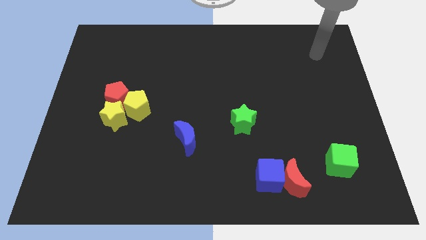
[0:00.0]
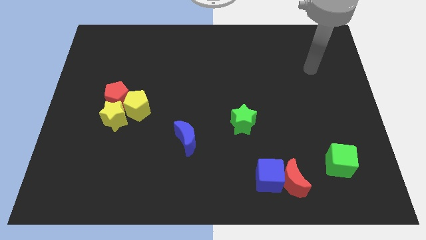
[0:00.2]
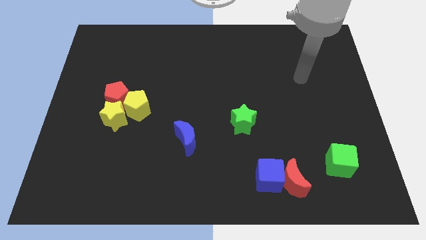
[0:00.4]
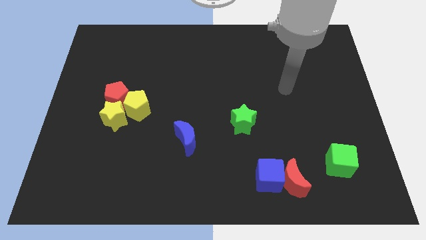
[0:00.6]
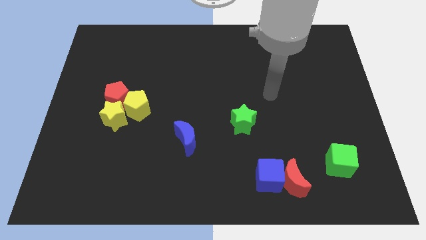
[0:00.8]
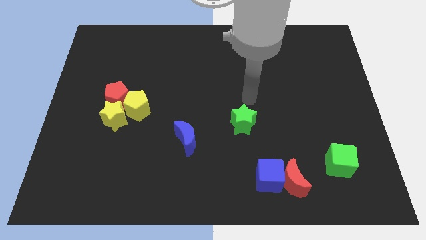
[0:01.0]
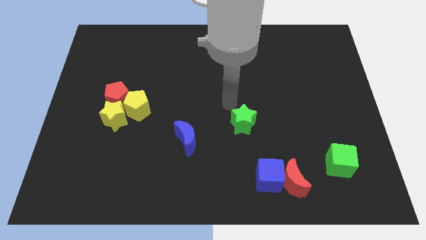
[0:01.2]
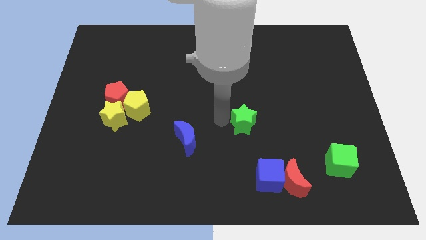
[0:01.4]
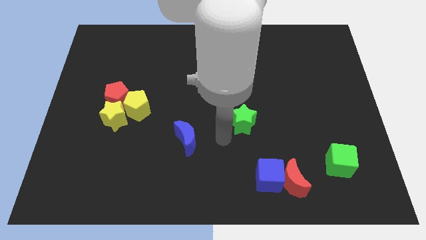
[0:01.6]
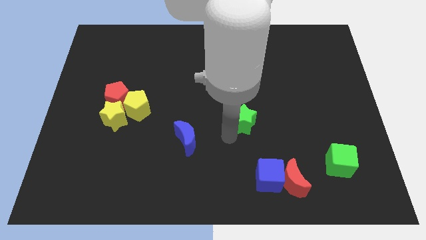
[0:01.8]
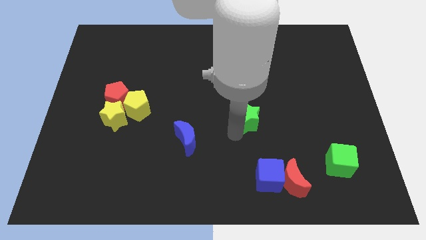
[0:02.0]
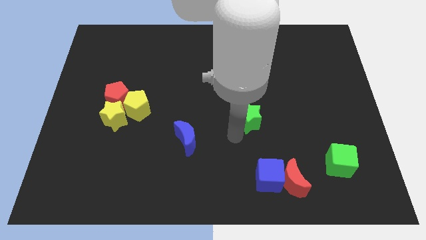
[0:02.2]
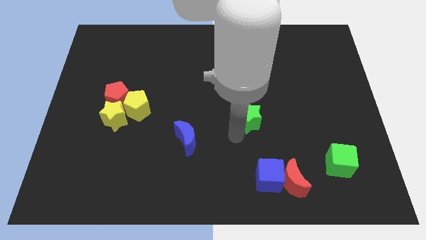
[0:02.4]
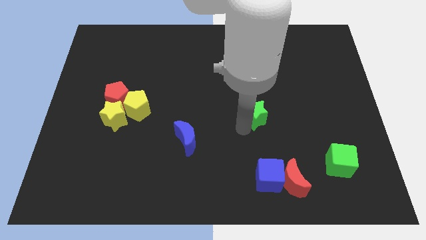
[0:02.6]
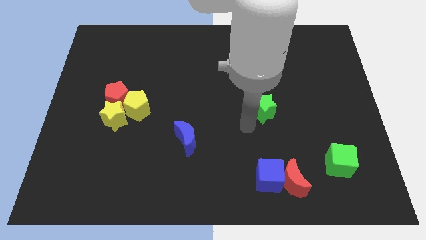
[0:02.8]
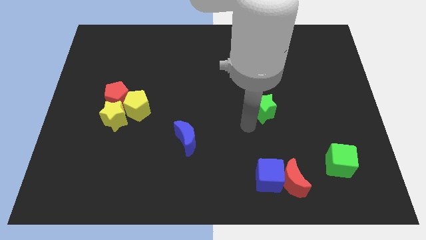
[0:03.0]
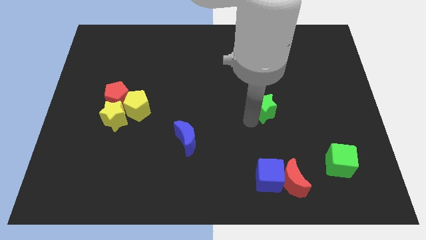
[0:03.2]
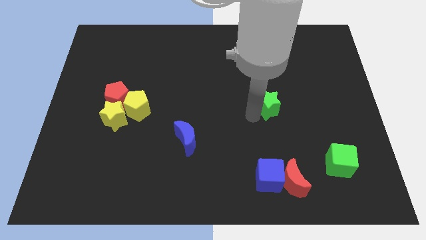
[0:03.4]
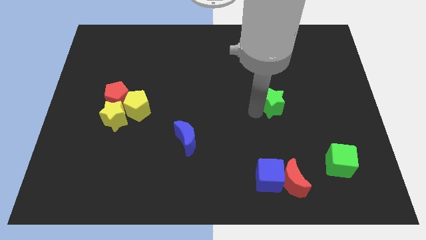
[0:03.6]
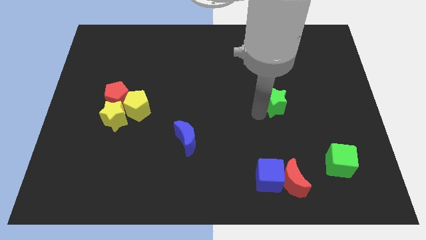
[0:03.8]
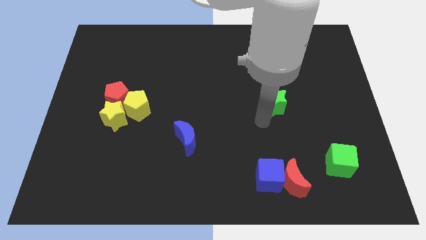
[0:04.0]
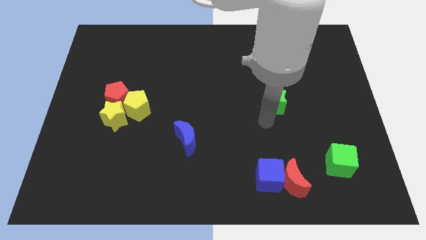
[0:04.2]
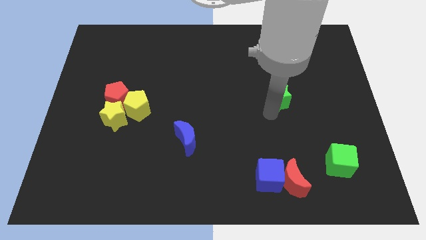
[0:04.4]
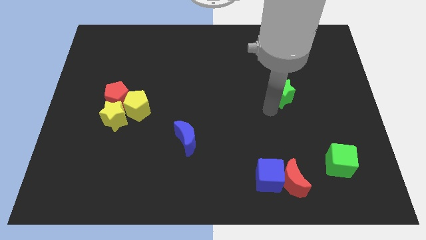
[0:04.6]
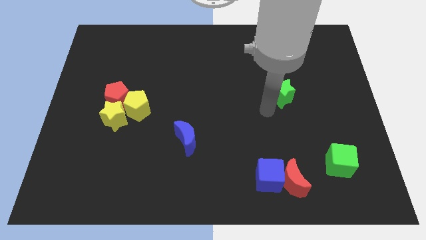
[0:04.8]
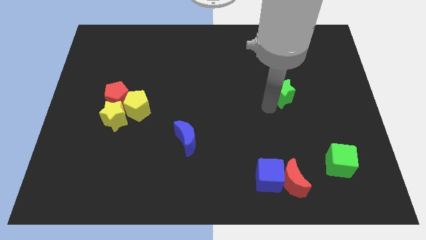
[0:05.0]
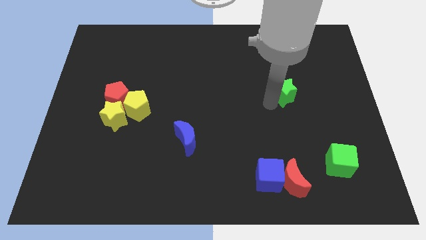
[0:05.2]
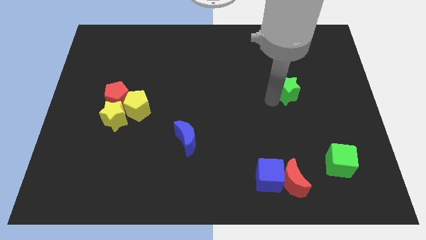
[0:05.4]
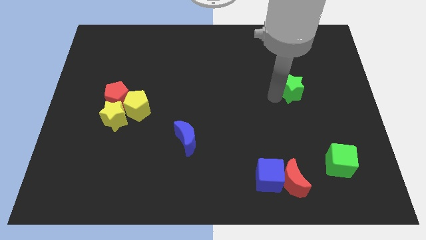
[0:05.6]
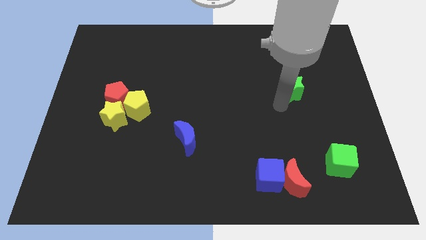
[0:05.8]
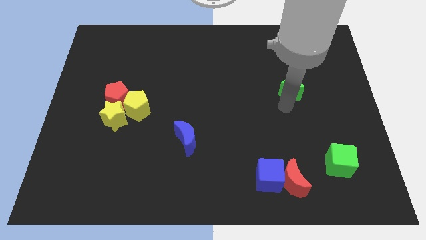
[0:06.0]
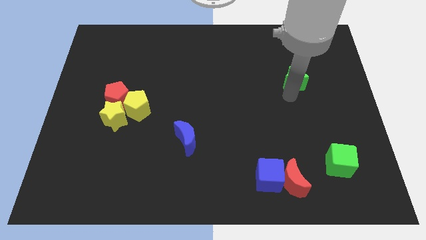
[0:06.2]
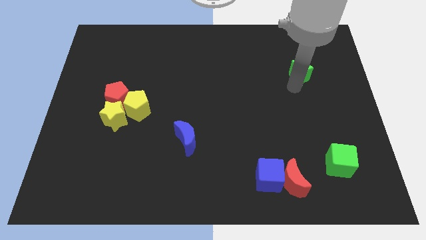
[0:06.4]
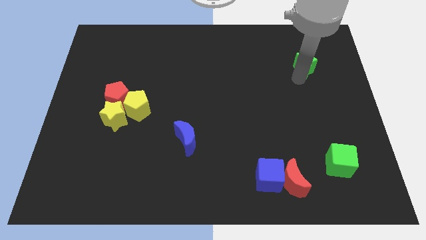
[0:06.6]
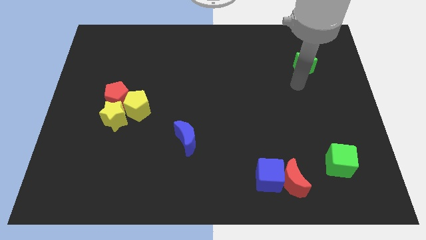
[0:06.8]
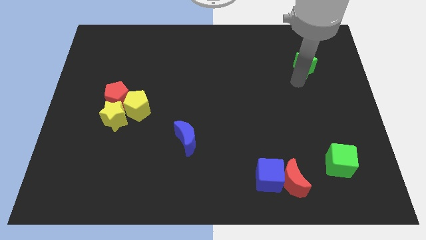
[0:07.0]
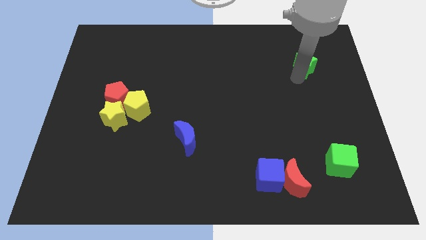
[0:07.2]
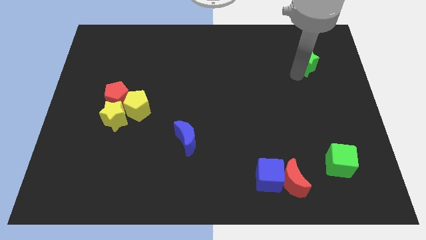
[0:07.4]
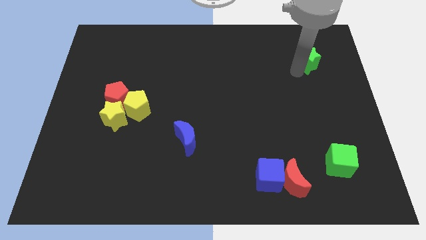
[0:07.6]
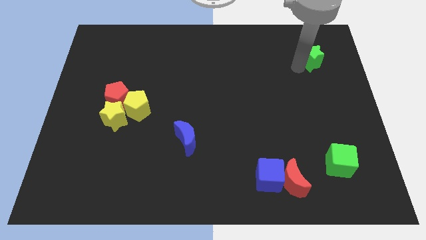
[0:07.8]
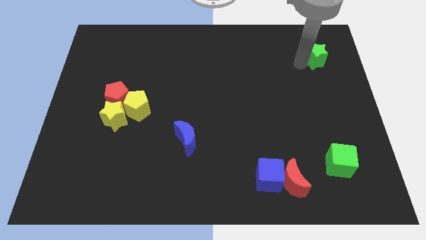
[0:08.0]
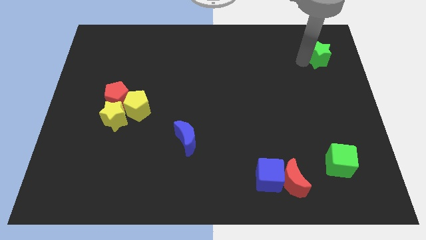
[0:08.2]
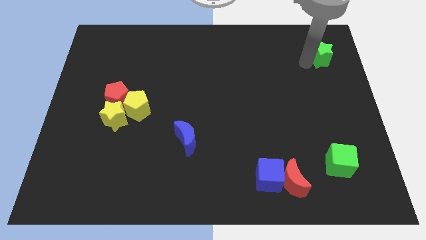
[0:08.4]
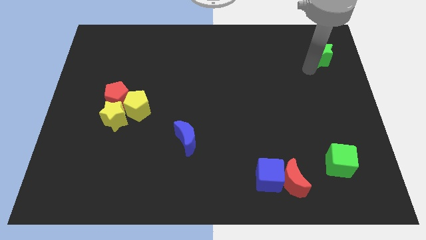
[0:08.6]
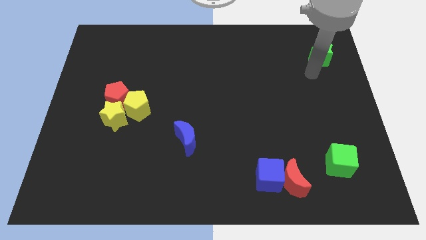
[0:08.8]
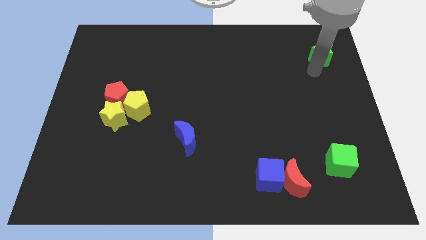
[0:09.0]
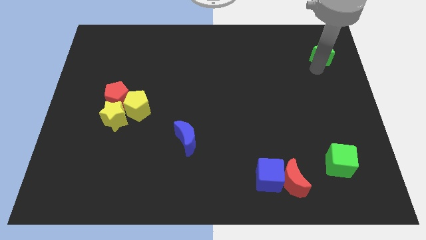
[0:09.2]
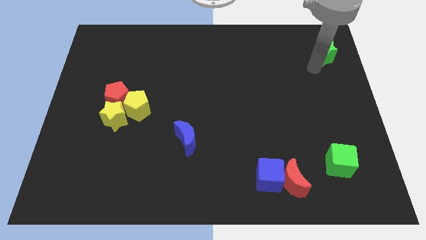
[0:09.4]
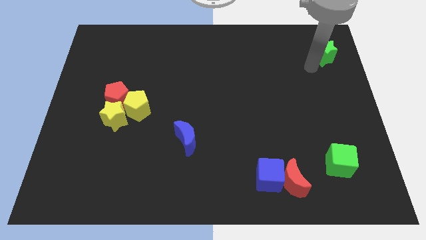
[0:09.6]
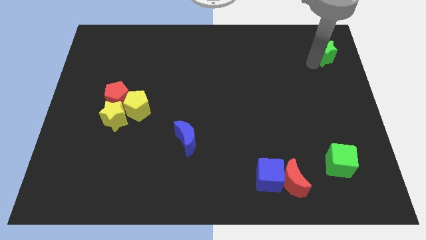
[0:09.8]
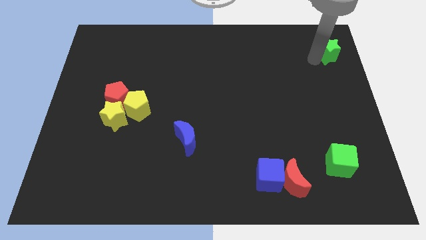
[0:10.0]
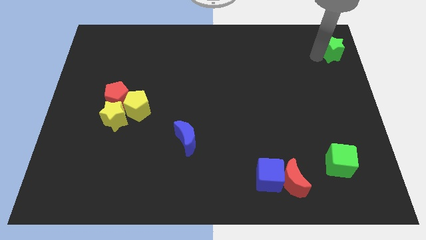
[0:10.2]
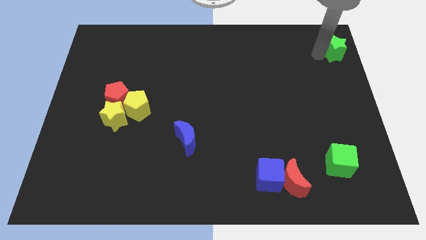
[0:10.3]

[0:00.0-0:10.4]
push the green star to the top right corner

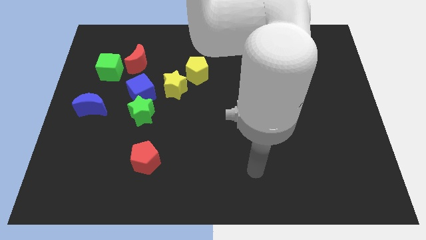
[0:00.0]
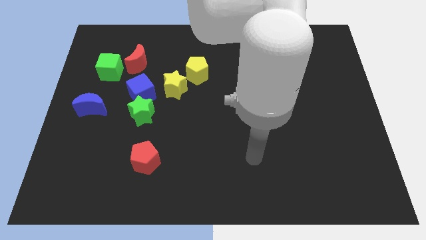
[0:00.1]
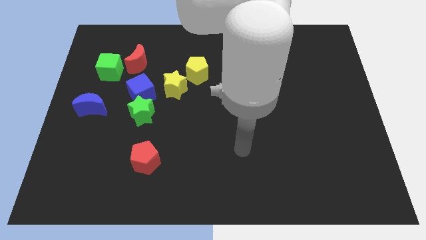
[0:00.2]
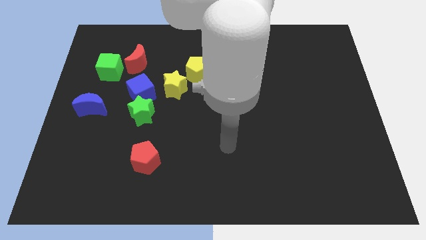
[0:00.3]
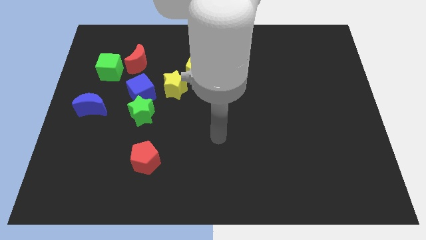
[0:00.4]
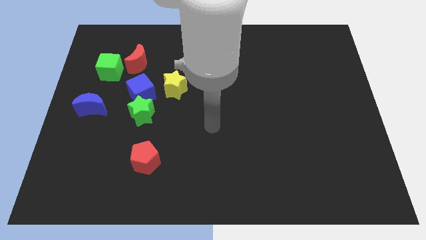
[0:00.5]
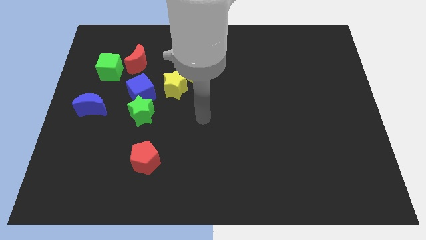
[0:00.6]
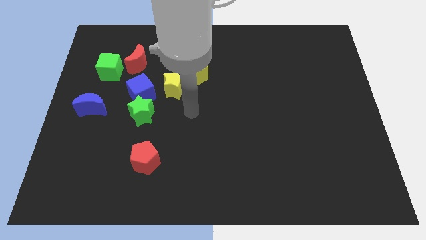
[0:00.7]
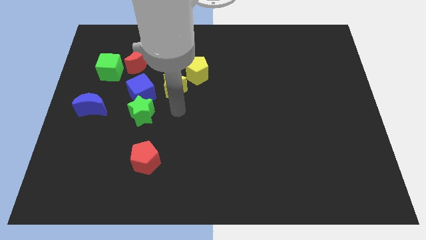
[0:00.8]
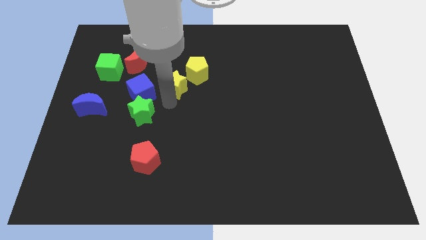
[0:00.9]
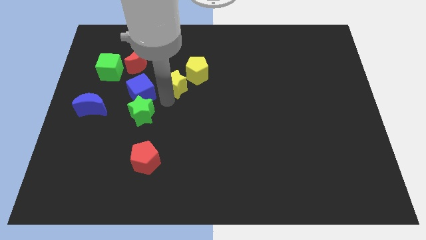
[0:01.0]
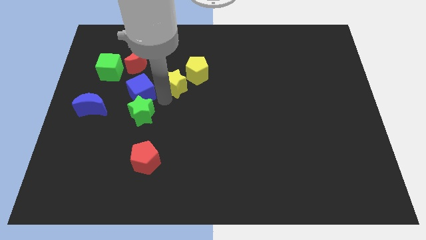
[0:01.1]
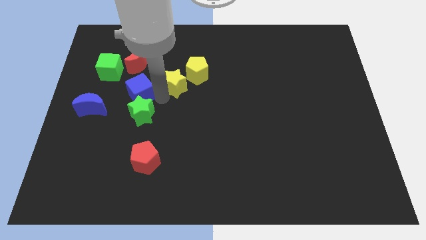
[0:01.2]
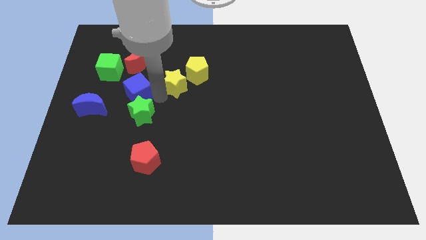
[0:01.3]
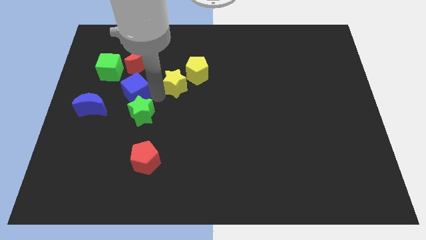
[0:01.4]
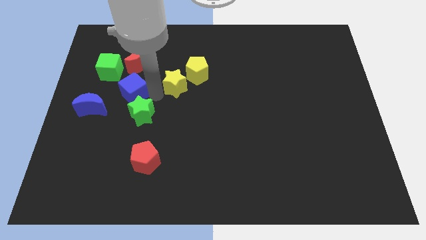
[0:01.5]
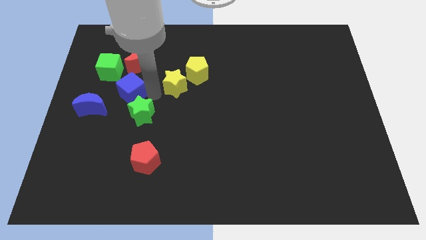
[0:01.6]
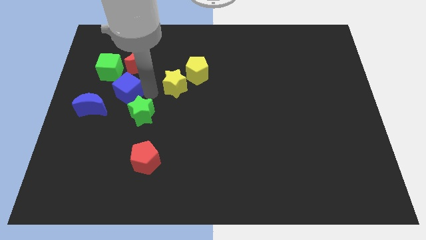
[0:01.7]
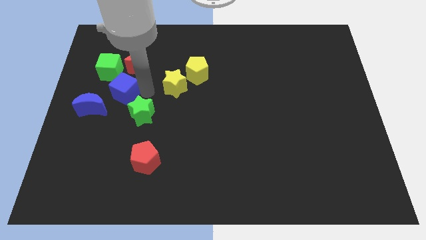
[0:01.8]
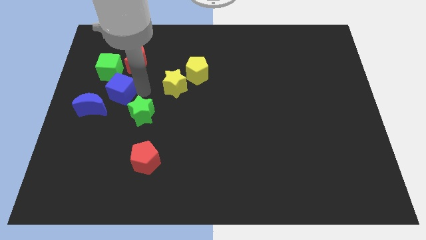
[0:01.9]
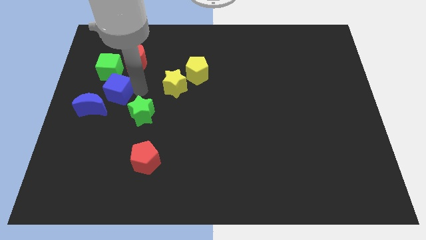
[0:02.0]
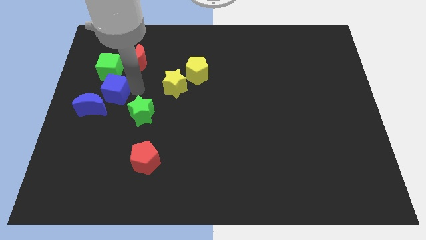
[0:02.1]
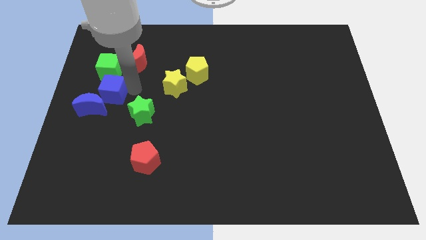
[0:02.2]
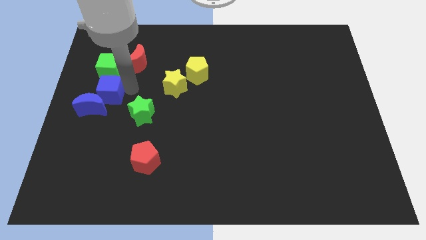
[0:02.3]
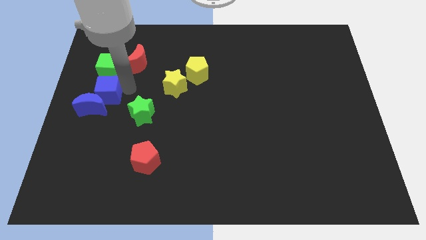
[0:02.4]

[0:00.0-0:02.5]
move the blue cube to the center left
